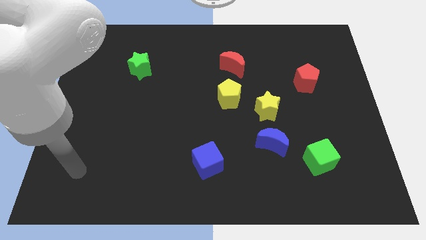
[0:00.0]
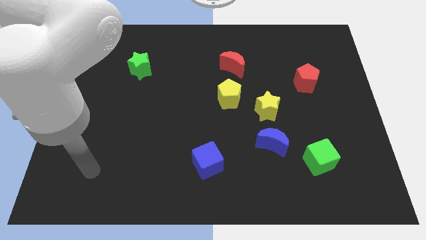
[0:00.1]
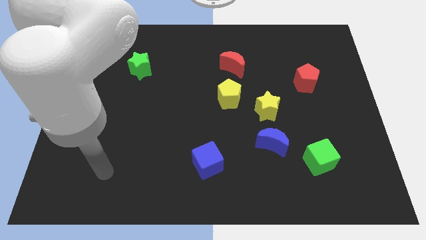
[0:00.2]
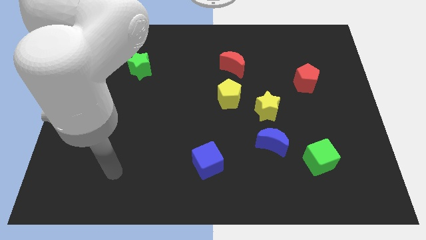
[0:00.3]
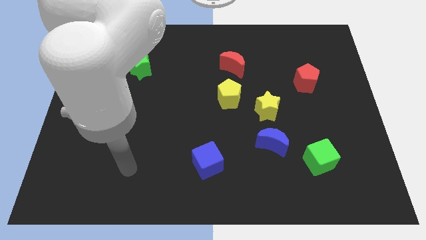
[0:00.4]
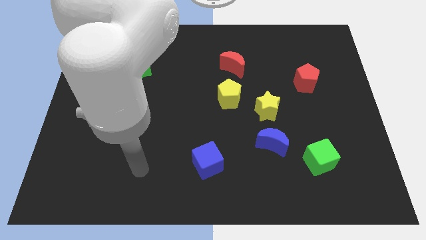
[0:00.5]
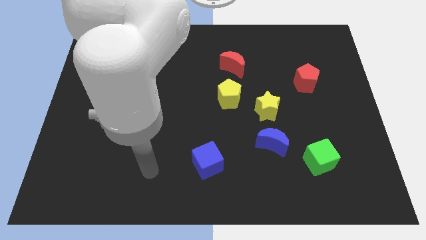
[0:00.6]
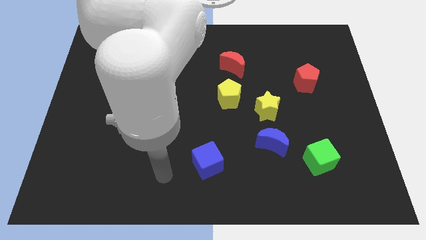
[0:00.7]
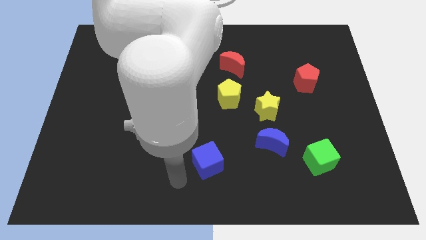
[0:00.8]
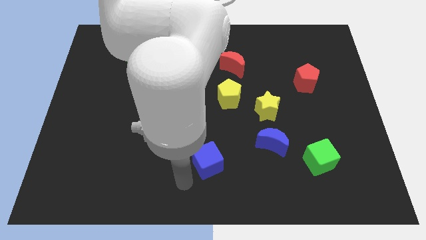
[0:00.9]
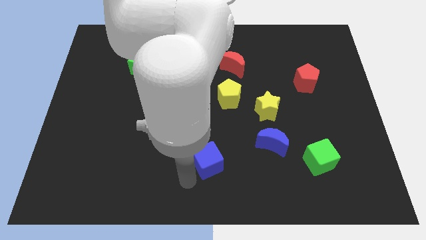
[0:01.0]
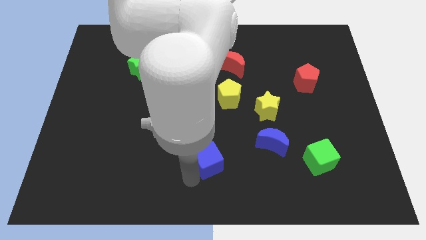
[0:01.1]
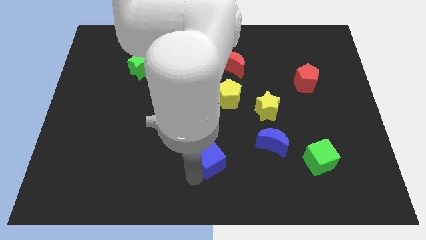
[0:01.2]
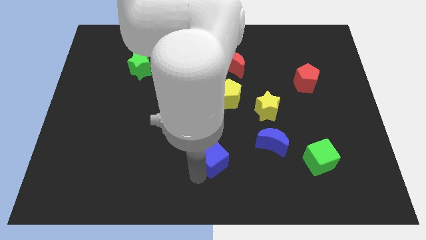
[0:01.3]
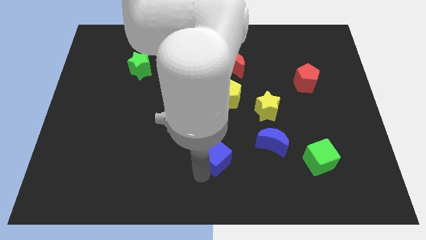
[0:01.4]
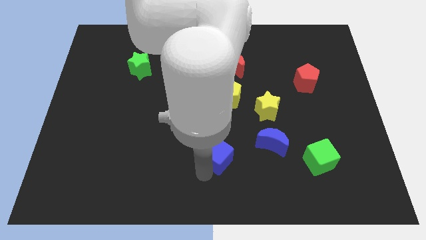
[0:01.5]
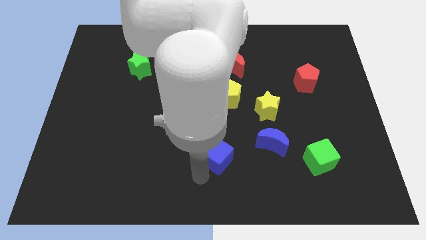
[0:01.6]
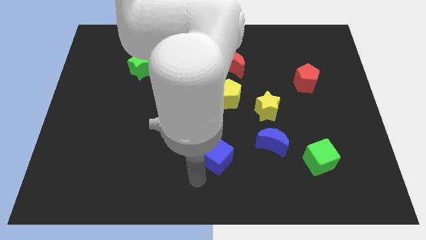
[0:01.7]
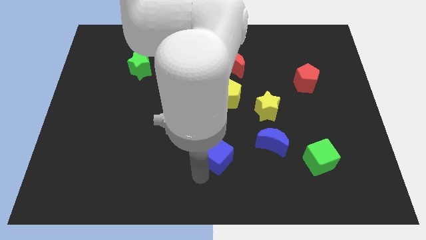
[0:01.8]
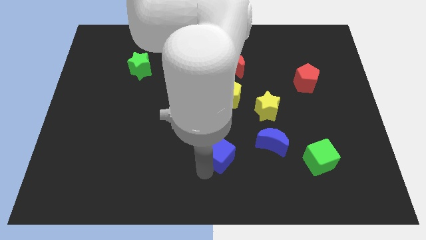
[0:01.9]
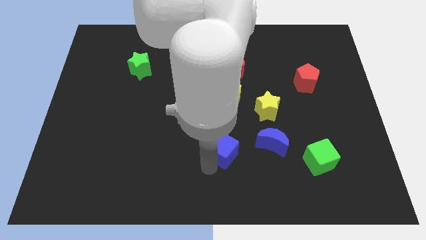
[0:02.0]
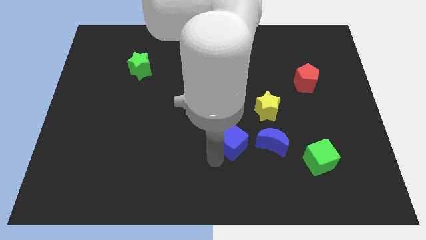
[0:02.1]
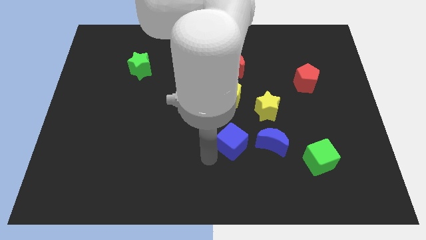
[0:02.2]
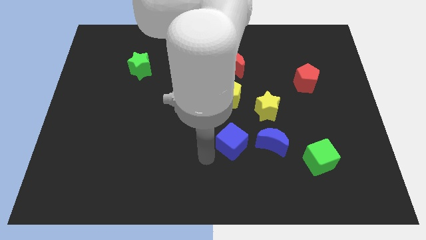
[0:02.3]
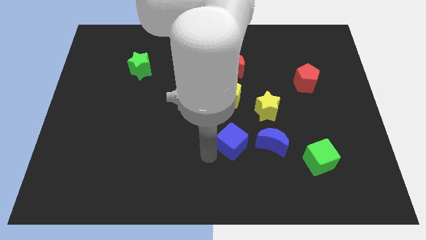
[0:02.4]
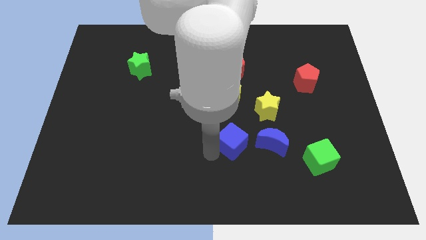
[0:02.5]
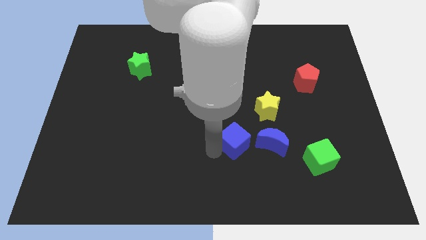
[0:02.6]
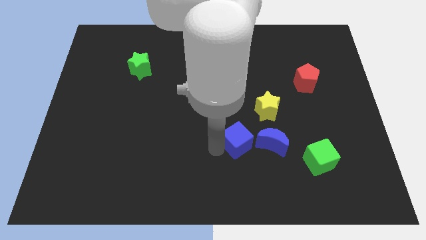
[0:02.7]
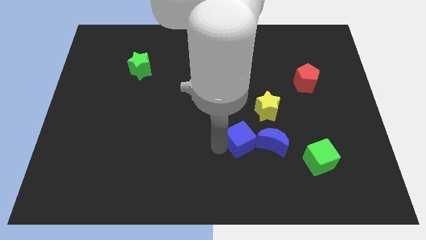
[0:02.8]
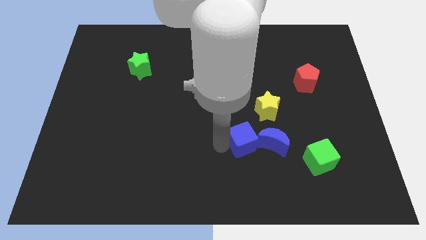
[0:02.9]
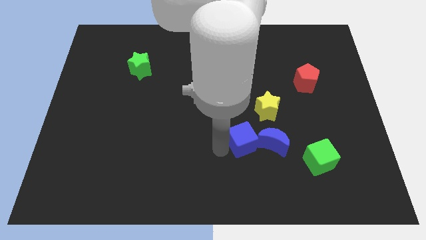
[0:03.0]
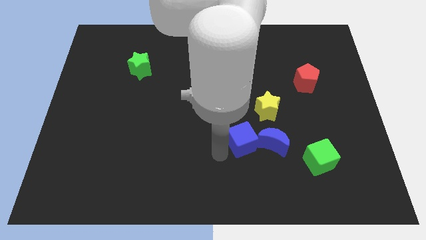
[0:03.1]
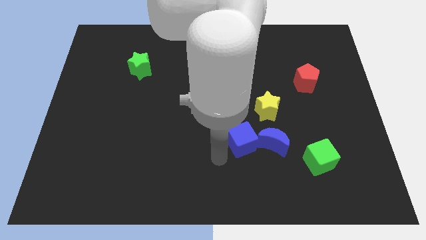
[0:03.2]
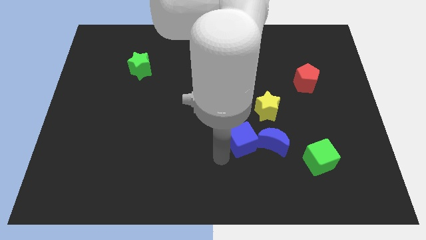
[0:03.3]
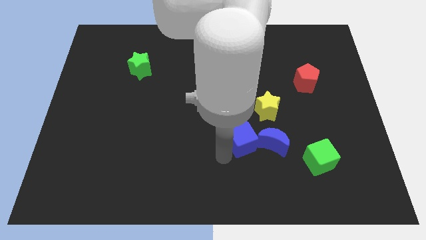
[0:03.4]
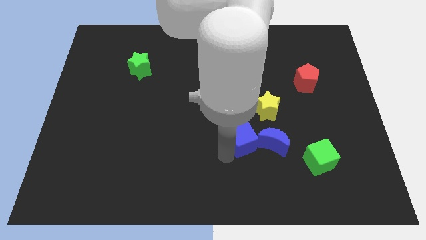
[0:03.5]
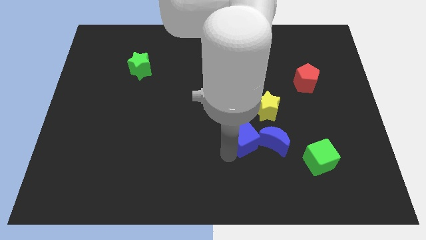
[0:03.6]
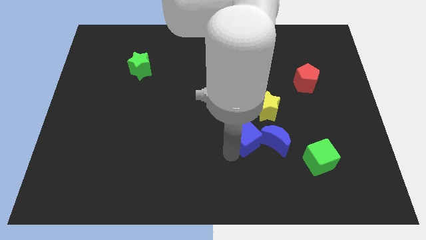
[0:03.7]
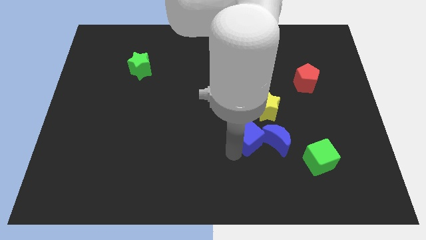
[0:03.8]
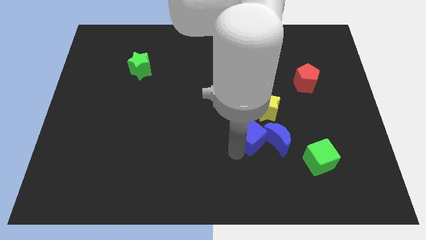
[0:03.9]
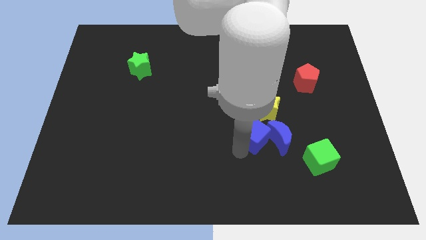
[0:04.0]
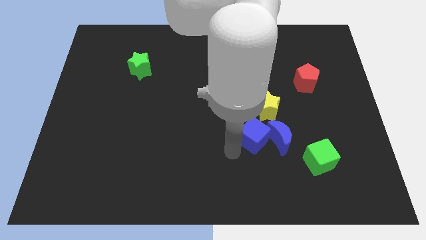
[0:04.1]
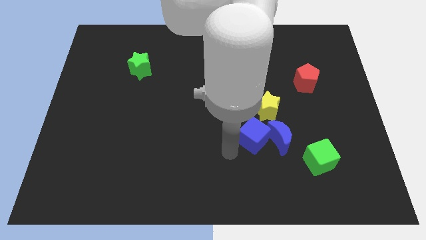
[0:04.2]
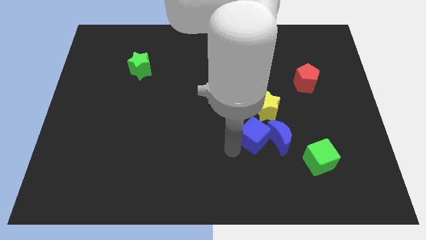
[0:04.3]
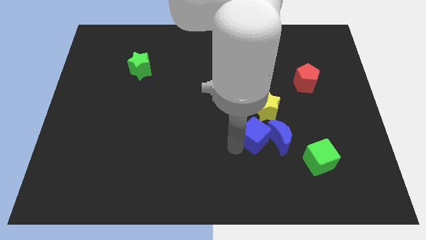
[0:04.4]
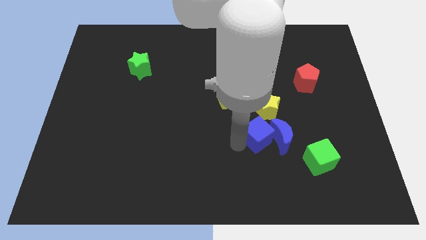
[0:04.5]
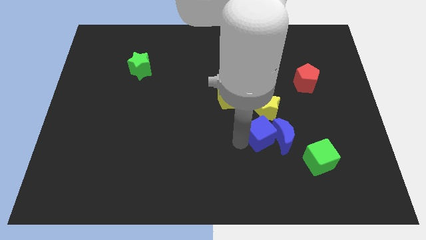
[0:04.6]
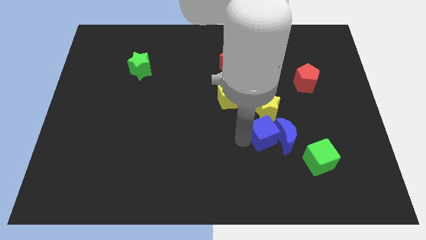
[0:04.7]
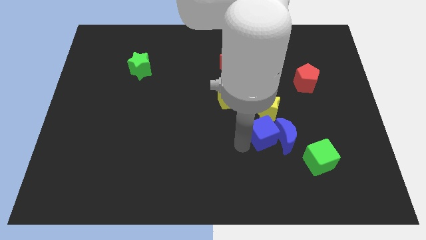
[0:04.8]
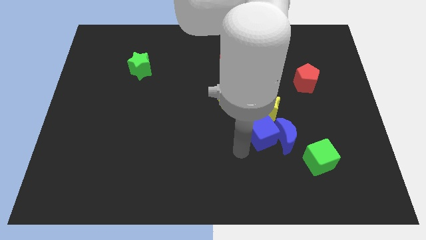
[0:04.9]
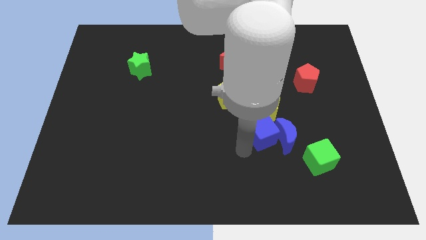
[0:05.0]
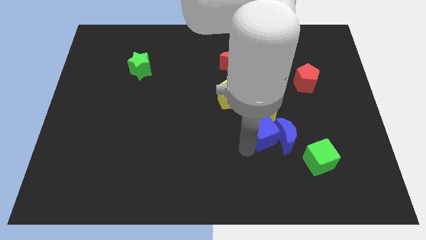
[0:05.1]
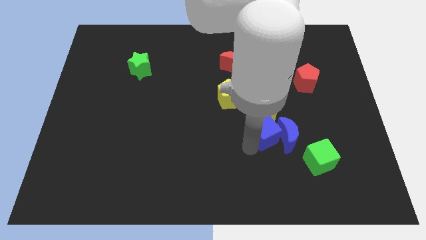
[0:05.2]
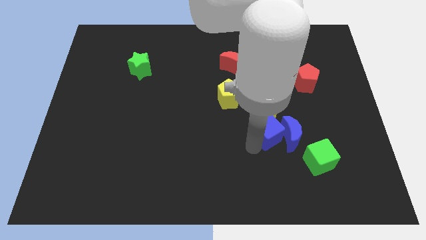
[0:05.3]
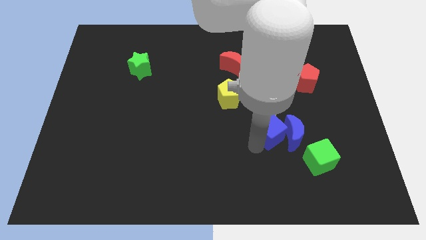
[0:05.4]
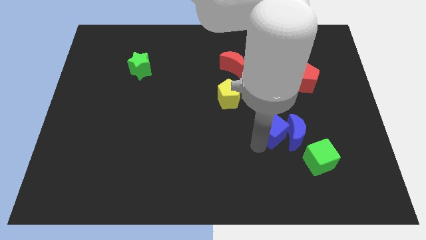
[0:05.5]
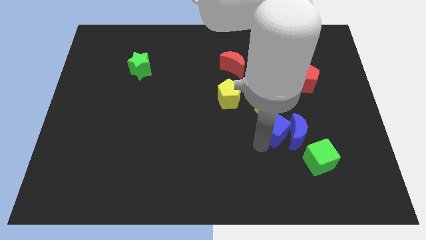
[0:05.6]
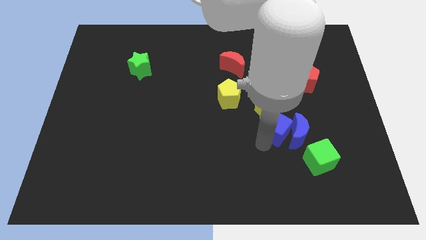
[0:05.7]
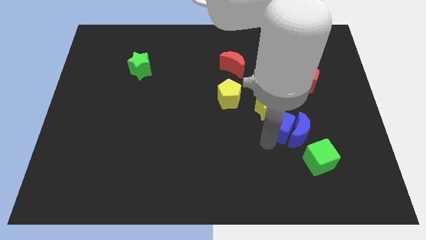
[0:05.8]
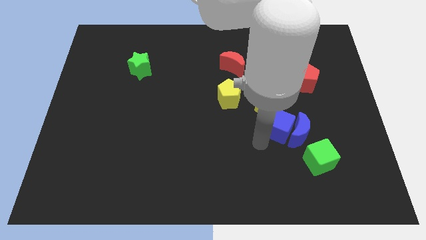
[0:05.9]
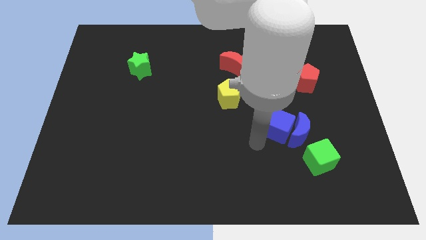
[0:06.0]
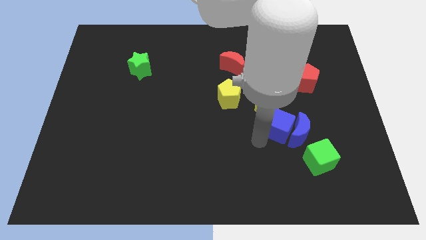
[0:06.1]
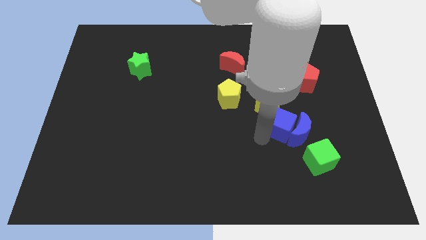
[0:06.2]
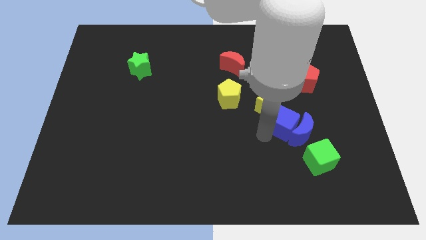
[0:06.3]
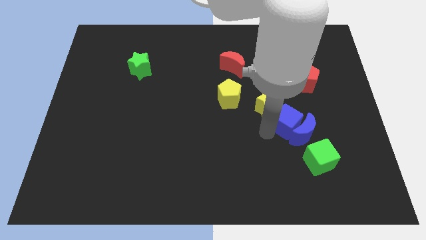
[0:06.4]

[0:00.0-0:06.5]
slide the blue cube just right of the yellow star

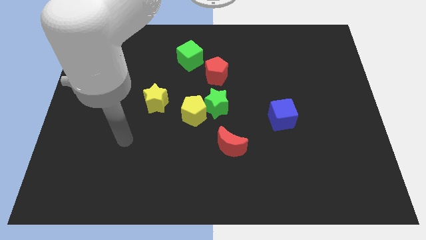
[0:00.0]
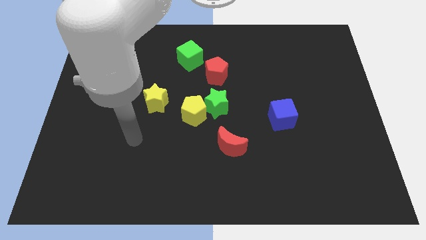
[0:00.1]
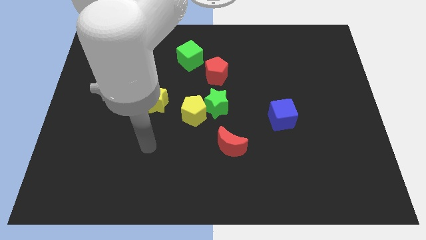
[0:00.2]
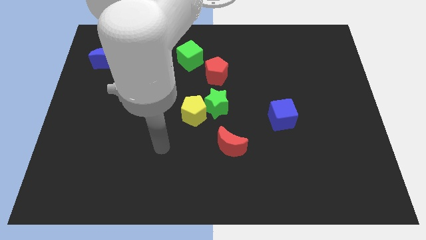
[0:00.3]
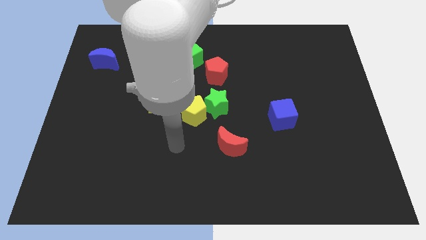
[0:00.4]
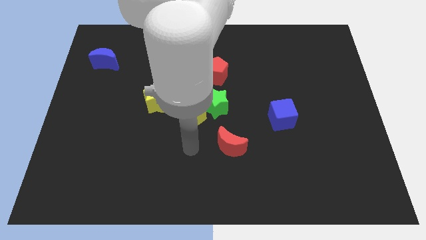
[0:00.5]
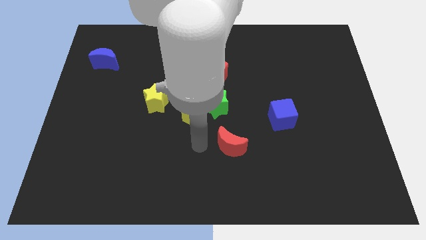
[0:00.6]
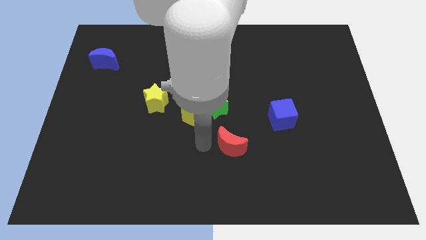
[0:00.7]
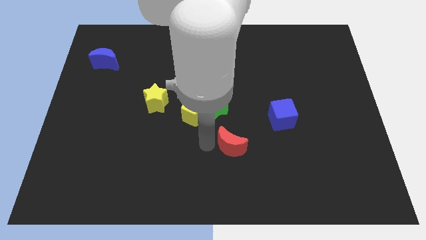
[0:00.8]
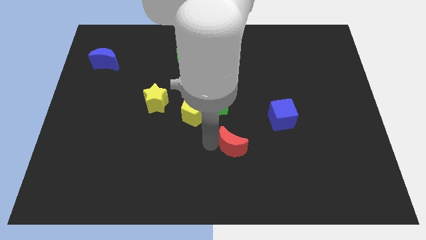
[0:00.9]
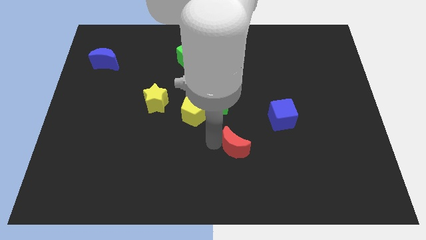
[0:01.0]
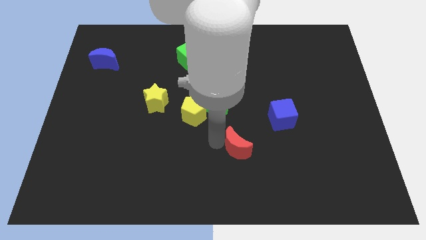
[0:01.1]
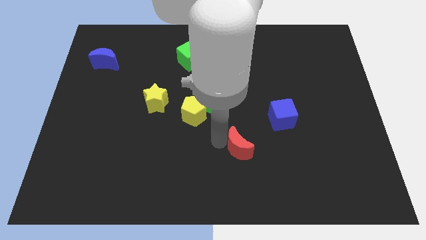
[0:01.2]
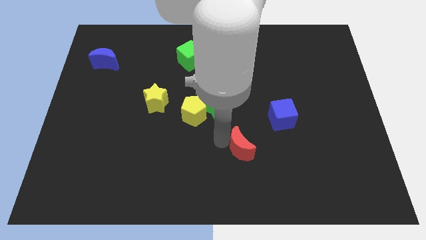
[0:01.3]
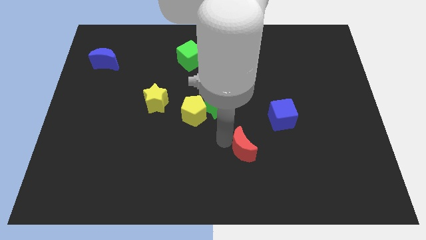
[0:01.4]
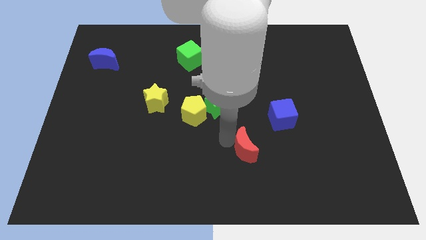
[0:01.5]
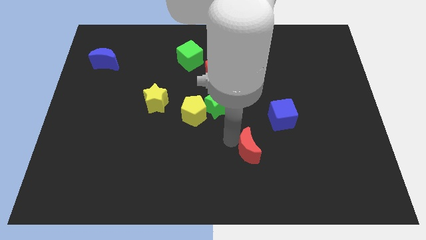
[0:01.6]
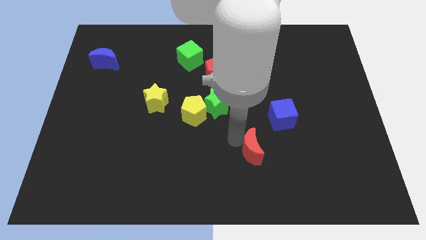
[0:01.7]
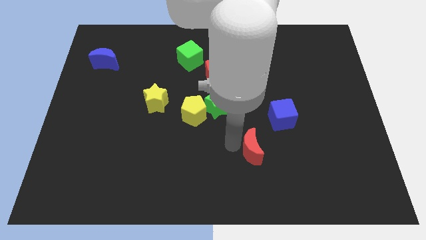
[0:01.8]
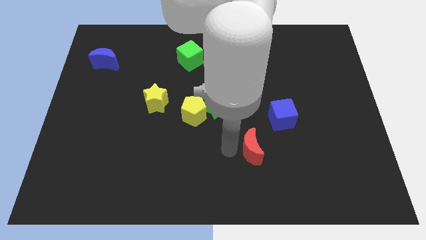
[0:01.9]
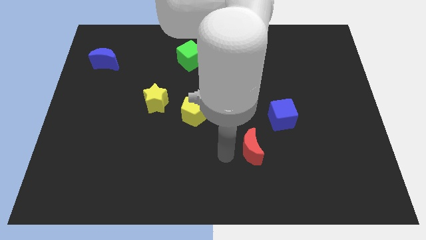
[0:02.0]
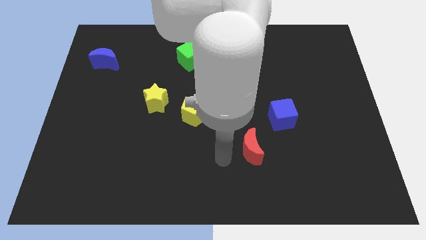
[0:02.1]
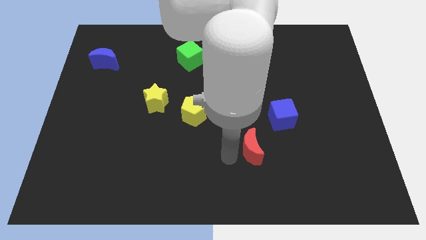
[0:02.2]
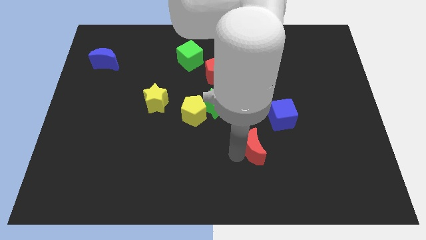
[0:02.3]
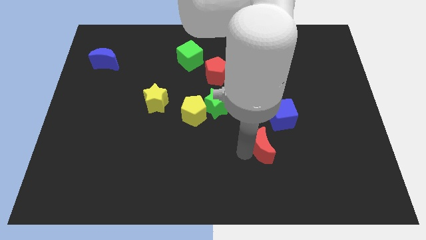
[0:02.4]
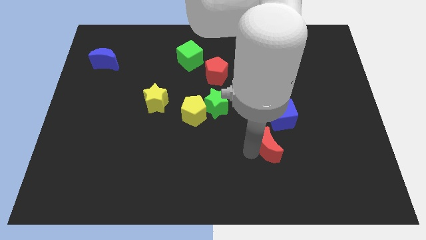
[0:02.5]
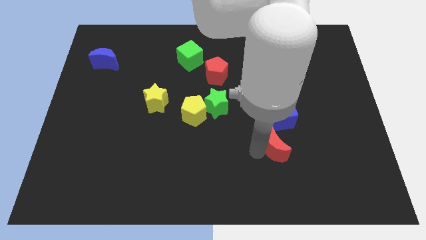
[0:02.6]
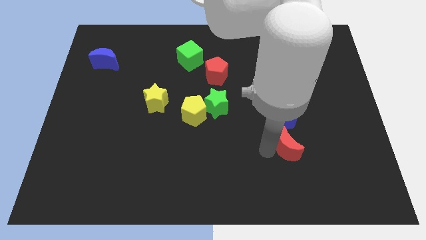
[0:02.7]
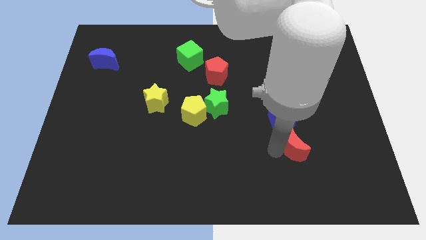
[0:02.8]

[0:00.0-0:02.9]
put the red moon to the bottom right side of the blue cube
